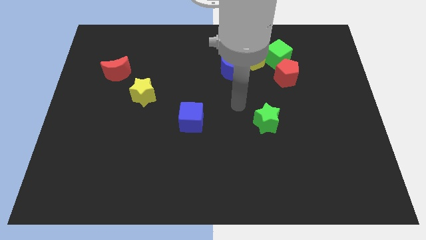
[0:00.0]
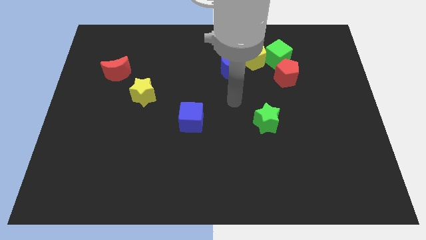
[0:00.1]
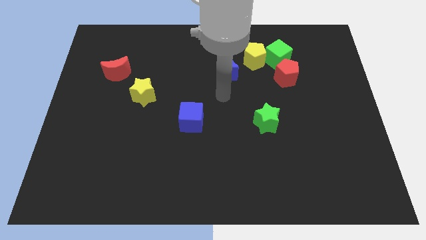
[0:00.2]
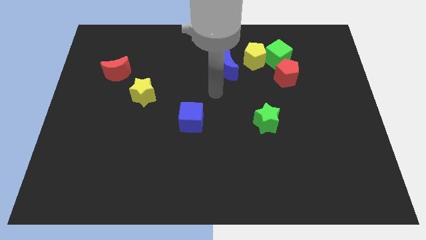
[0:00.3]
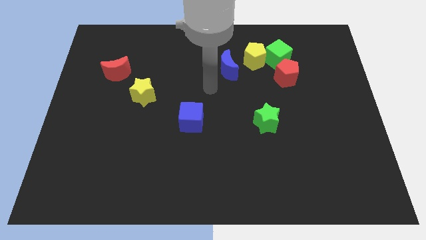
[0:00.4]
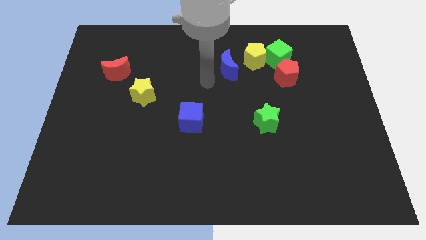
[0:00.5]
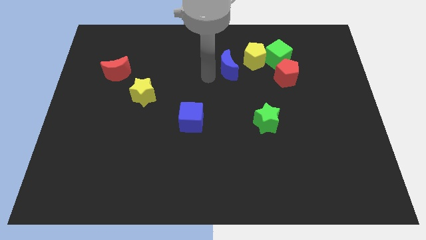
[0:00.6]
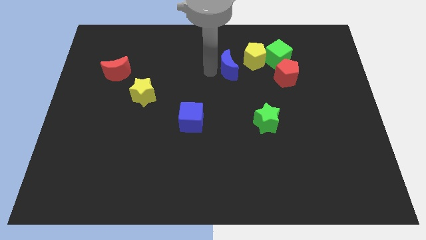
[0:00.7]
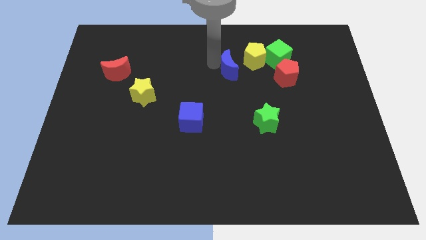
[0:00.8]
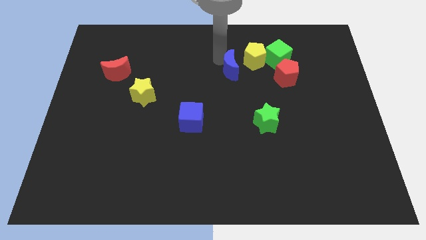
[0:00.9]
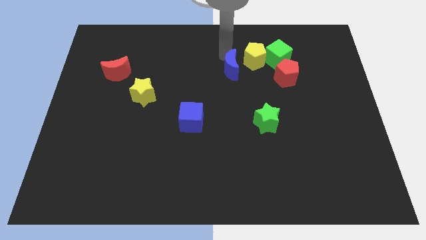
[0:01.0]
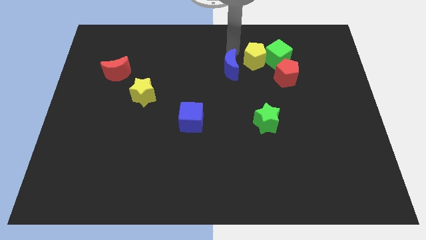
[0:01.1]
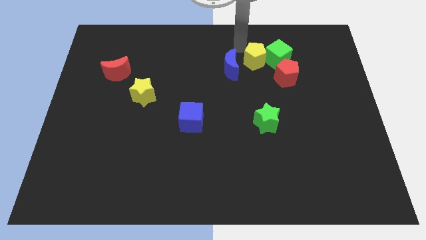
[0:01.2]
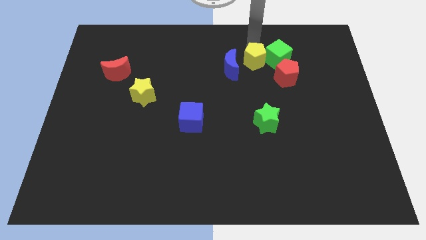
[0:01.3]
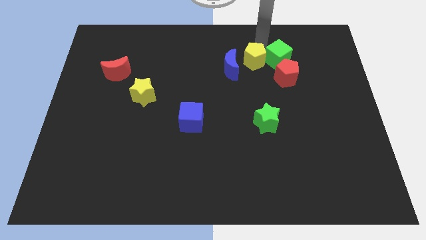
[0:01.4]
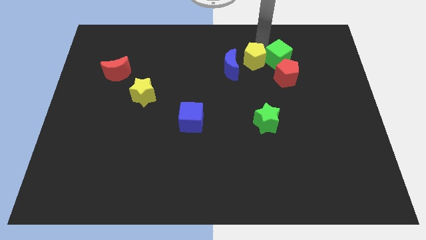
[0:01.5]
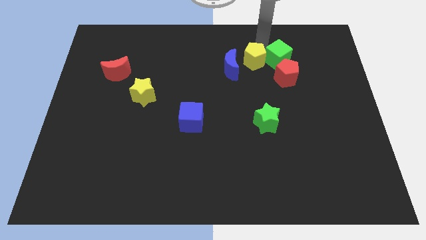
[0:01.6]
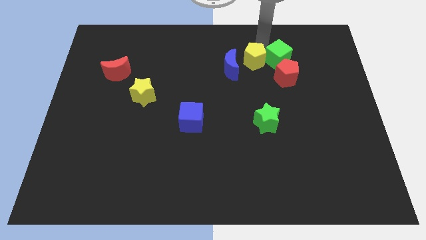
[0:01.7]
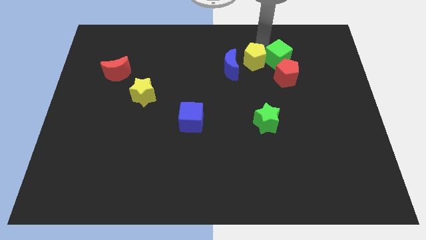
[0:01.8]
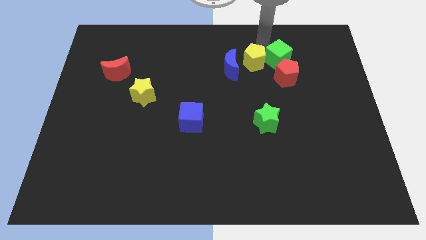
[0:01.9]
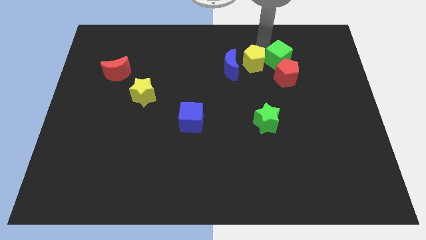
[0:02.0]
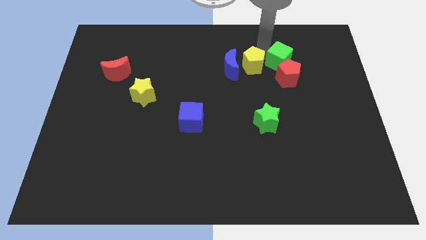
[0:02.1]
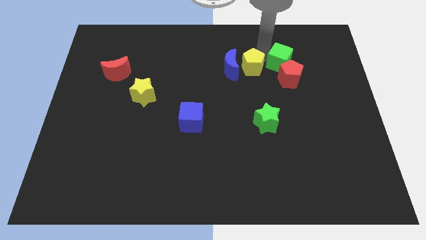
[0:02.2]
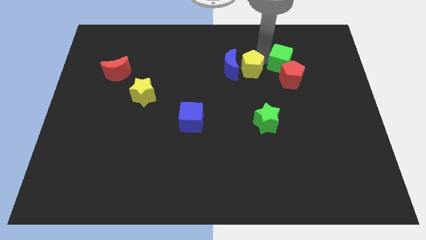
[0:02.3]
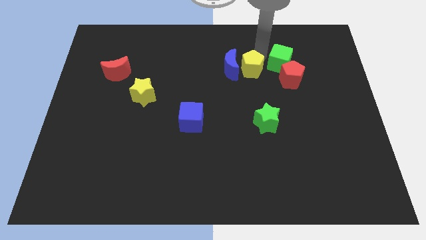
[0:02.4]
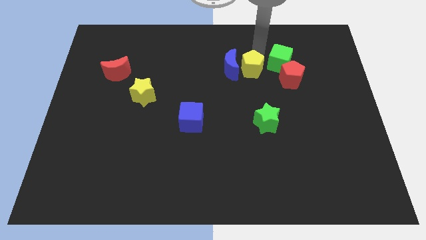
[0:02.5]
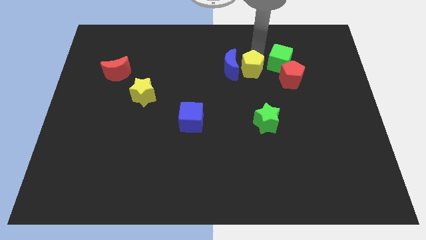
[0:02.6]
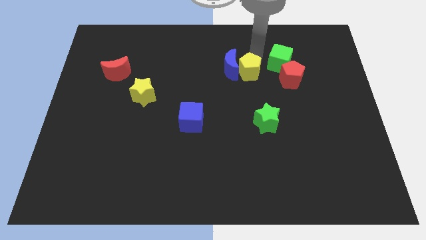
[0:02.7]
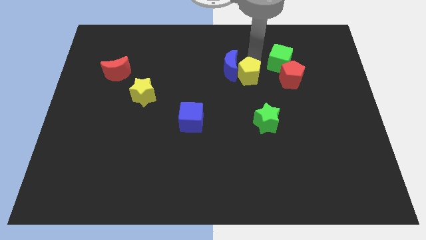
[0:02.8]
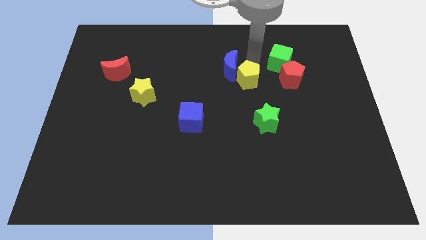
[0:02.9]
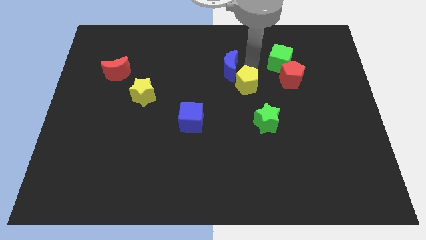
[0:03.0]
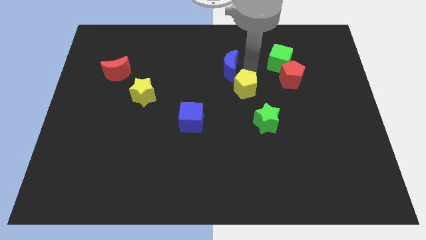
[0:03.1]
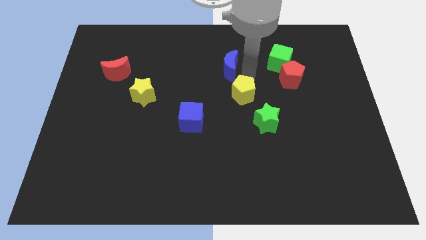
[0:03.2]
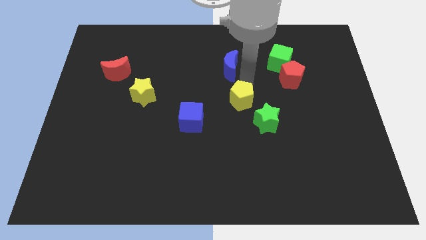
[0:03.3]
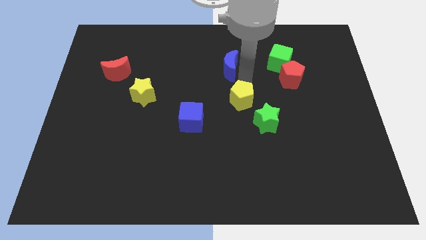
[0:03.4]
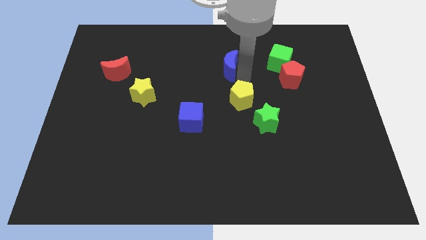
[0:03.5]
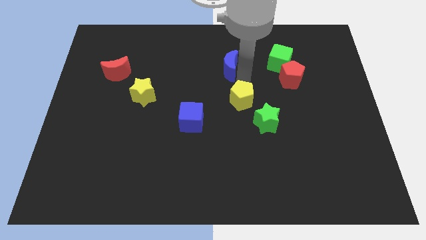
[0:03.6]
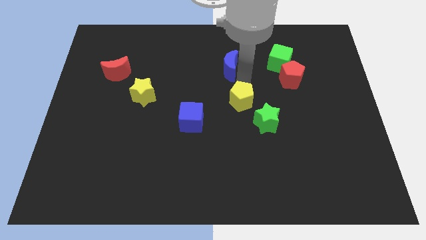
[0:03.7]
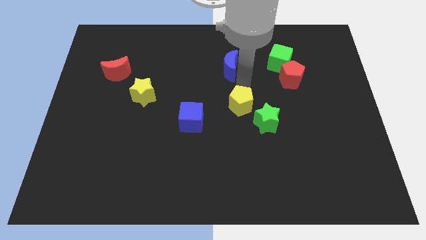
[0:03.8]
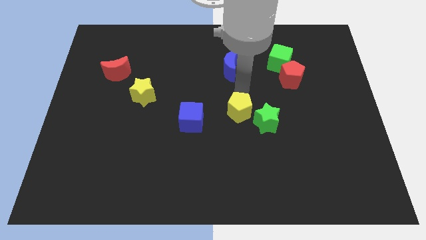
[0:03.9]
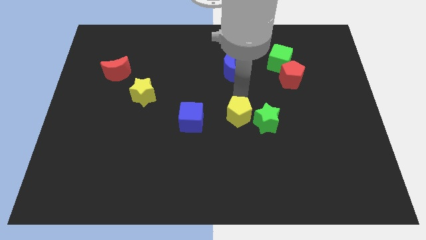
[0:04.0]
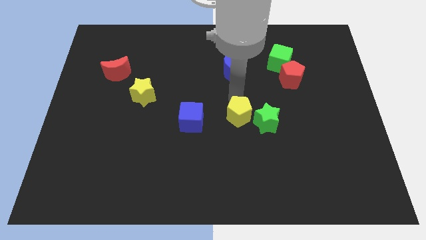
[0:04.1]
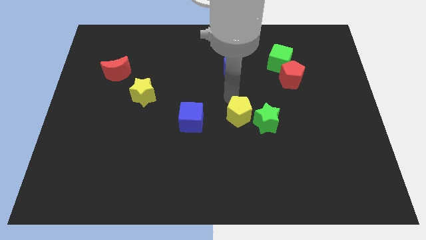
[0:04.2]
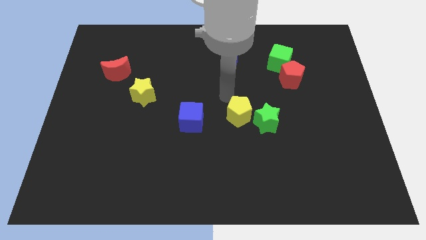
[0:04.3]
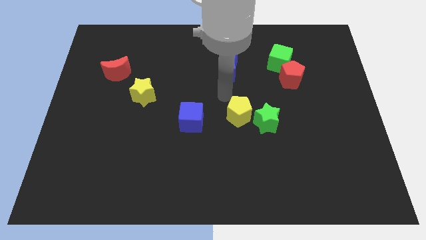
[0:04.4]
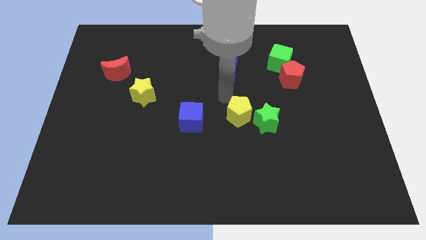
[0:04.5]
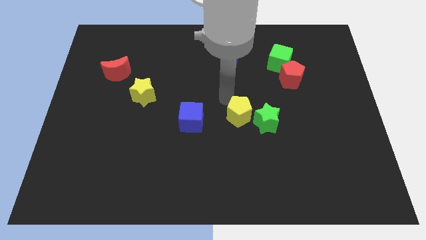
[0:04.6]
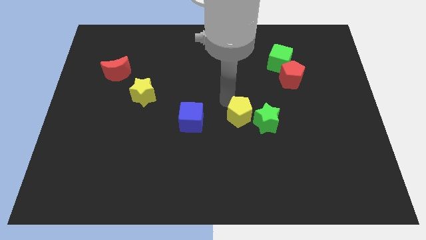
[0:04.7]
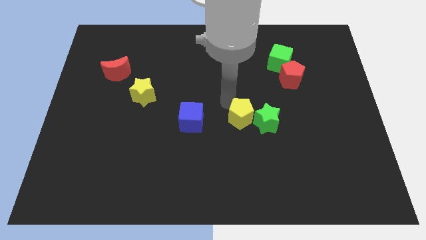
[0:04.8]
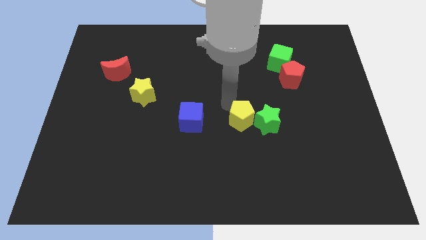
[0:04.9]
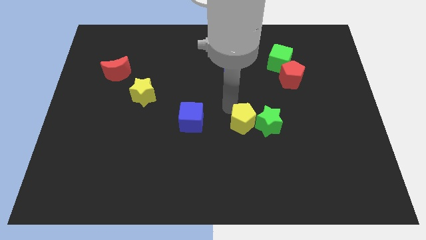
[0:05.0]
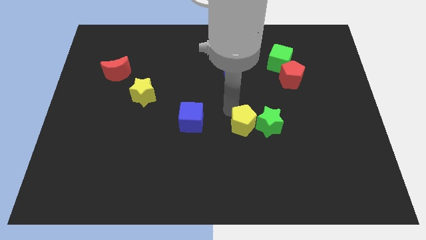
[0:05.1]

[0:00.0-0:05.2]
push the yellow pentagon down

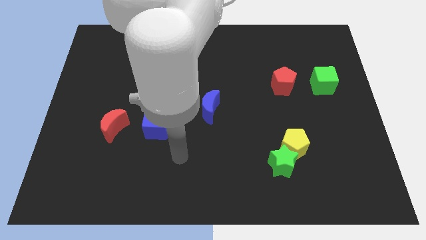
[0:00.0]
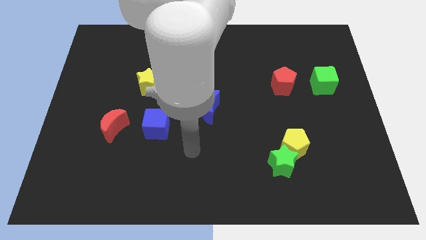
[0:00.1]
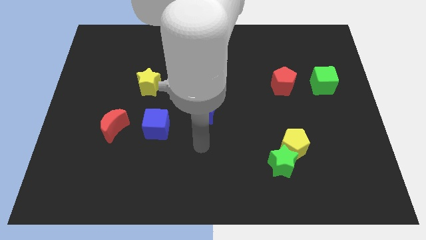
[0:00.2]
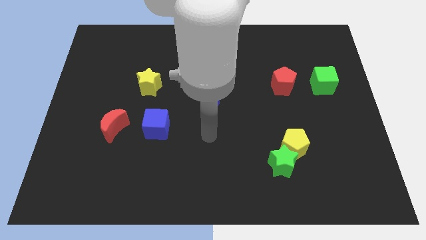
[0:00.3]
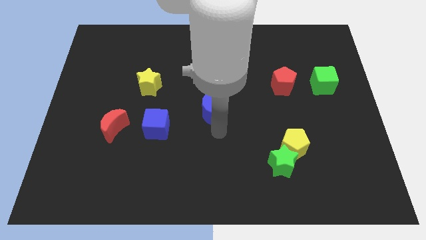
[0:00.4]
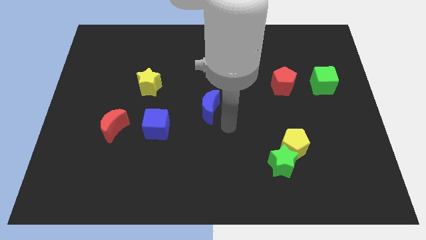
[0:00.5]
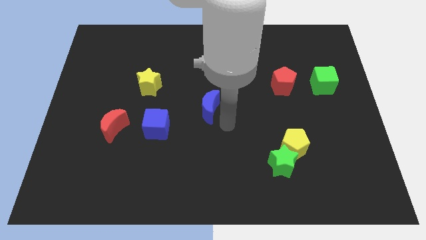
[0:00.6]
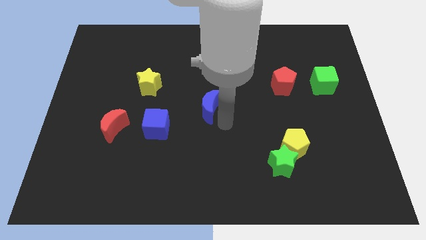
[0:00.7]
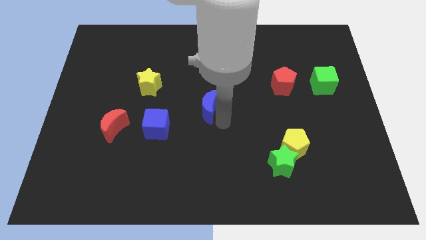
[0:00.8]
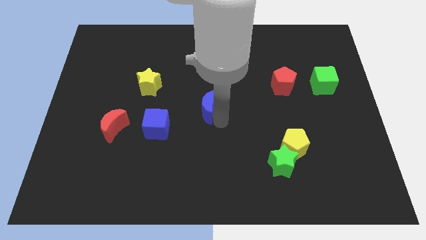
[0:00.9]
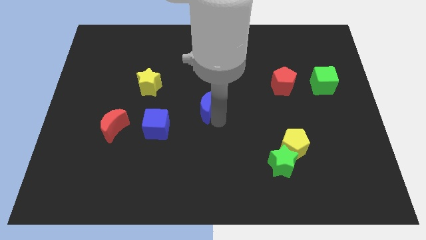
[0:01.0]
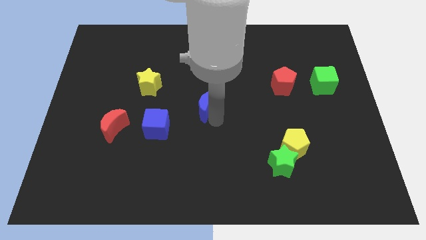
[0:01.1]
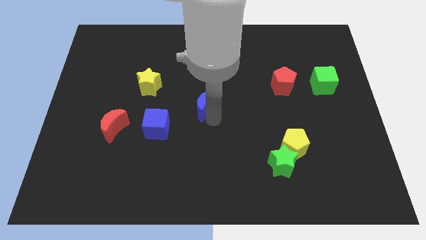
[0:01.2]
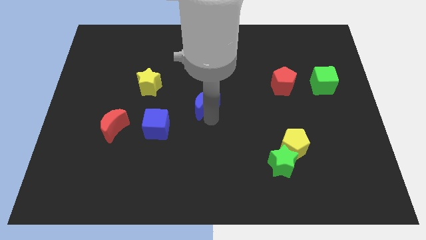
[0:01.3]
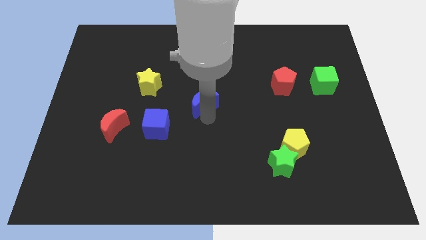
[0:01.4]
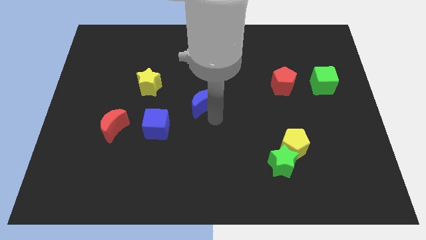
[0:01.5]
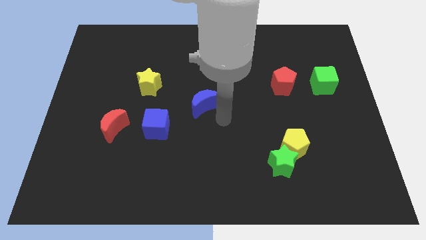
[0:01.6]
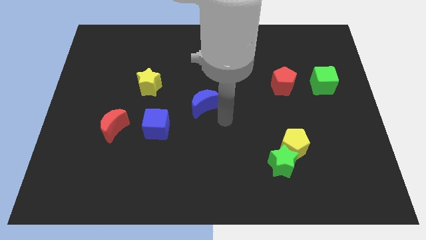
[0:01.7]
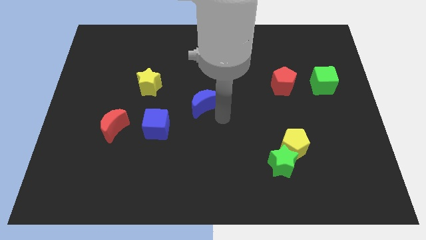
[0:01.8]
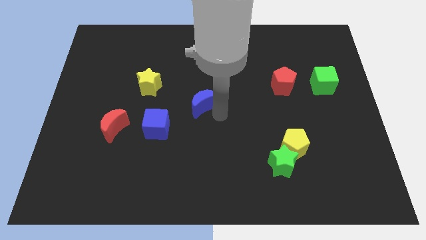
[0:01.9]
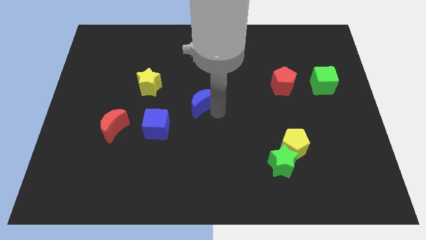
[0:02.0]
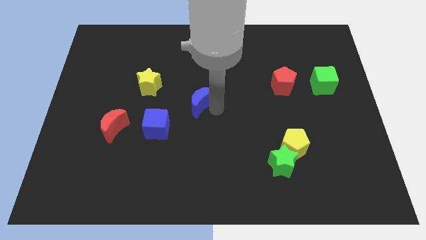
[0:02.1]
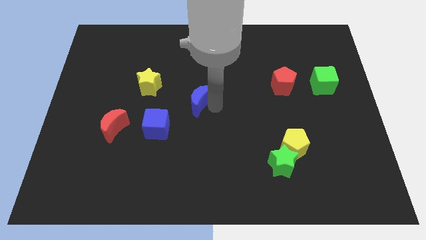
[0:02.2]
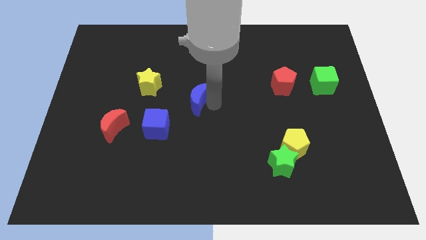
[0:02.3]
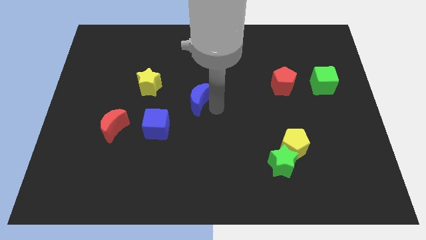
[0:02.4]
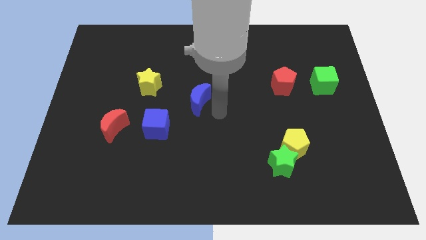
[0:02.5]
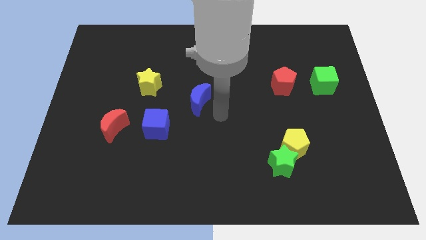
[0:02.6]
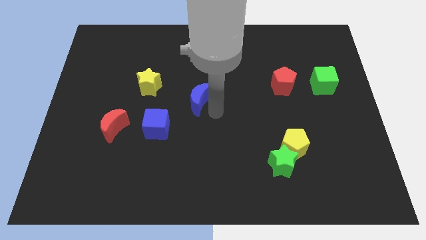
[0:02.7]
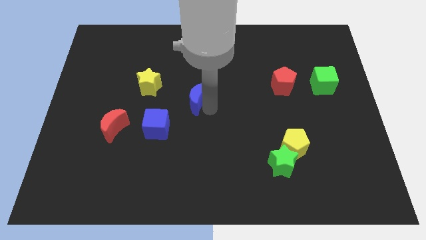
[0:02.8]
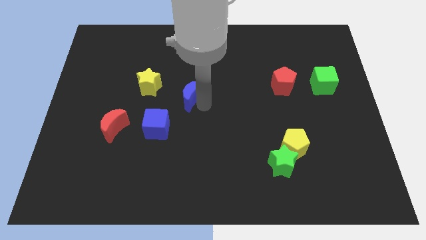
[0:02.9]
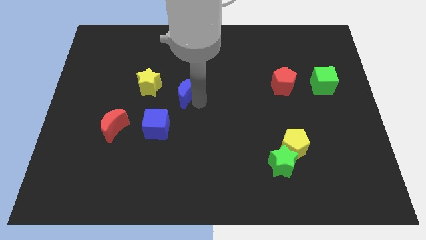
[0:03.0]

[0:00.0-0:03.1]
slightly push the blue moon diagonally up and left

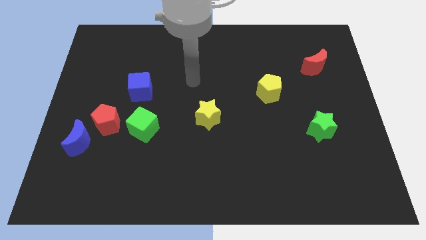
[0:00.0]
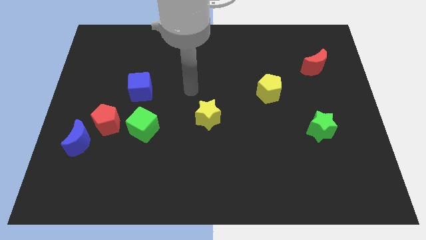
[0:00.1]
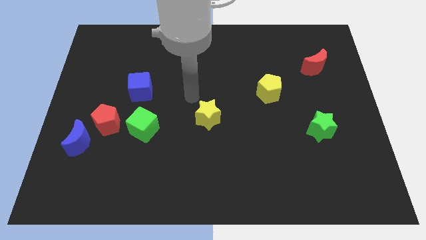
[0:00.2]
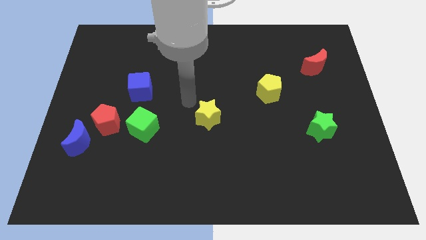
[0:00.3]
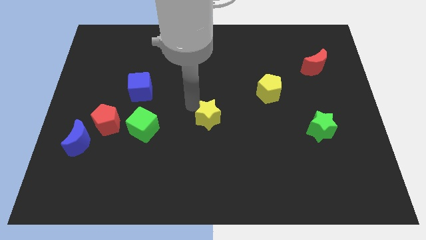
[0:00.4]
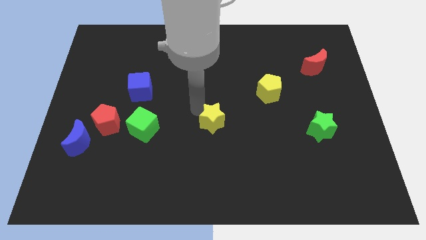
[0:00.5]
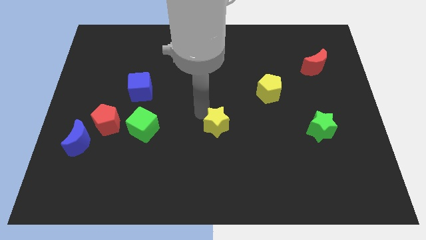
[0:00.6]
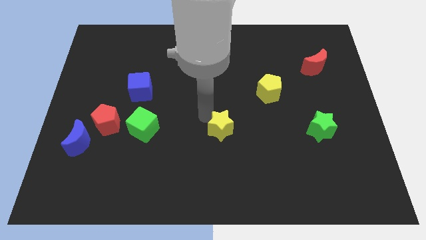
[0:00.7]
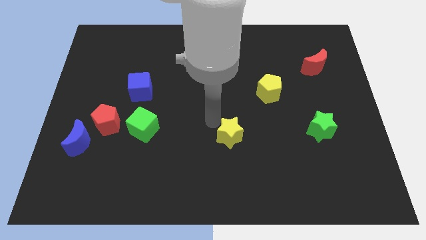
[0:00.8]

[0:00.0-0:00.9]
move the yellow star downwards and to the right diagonally a little bit
